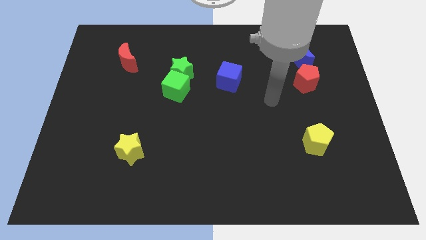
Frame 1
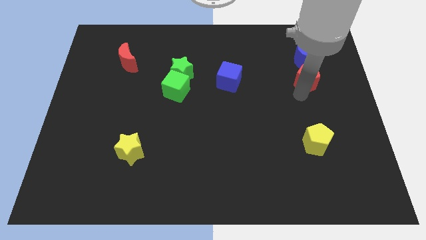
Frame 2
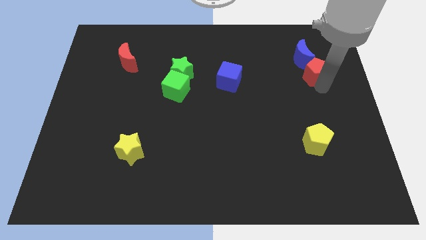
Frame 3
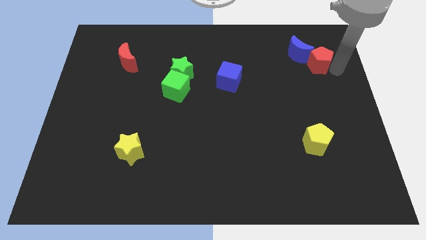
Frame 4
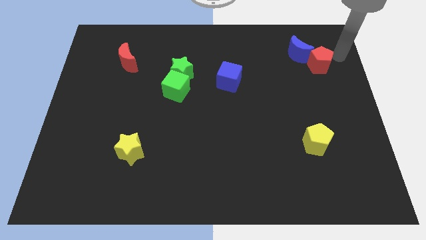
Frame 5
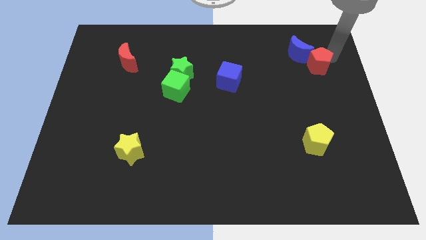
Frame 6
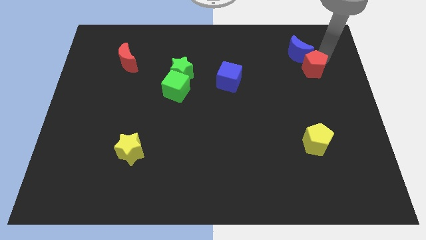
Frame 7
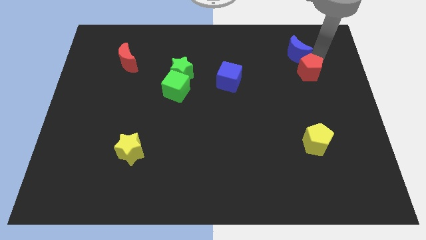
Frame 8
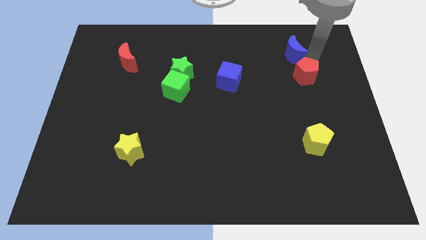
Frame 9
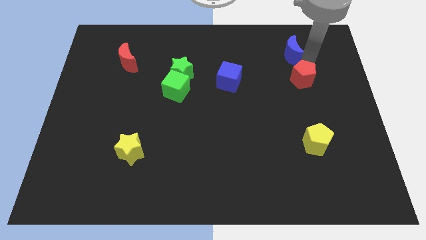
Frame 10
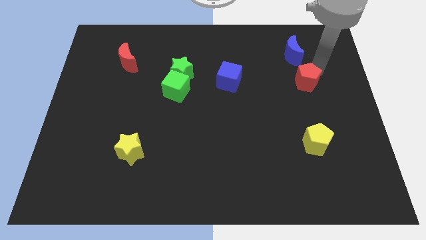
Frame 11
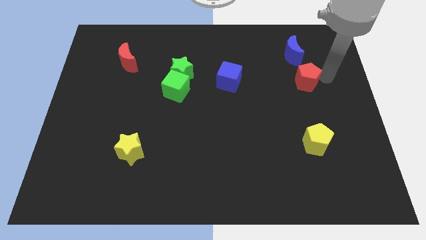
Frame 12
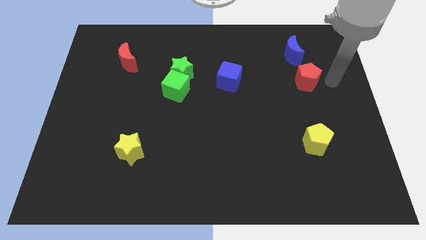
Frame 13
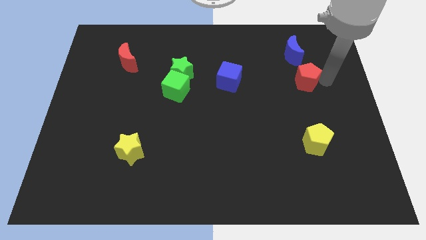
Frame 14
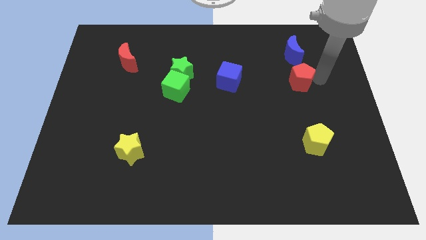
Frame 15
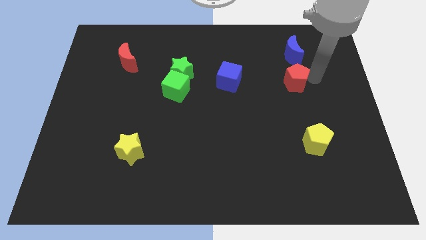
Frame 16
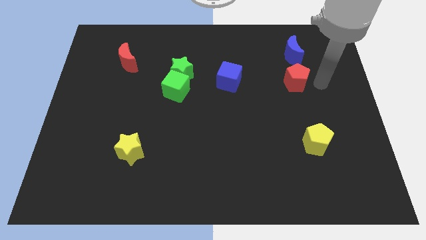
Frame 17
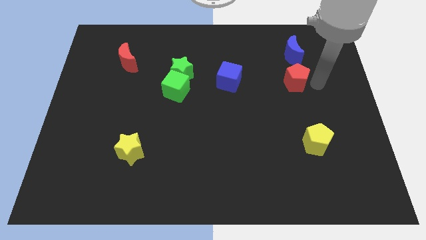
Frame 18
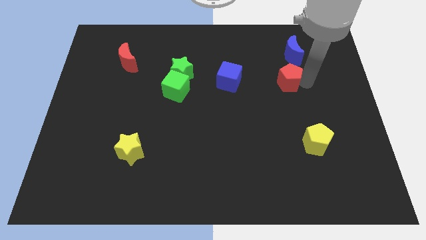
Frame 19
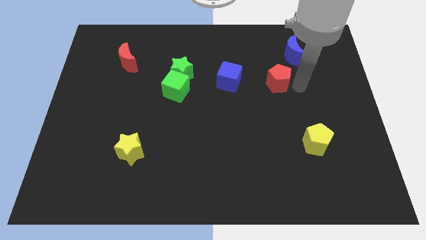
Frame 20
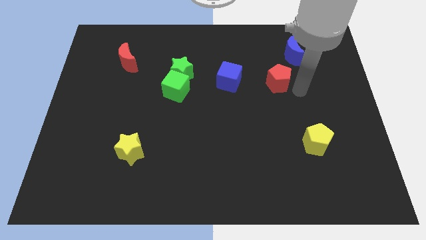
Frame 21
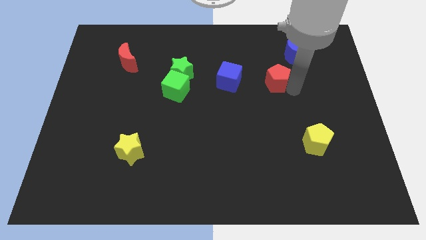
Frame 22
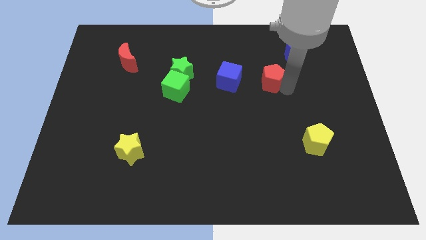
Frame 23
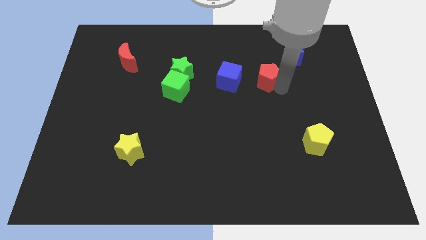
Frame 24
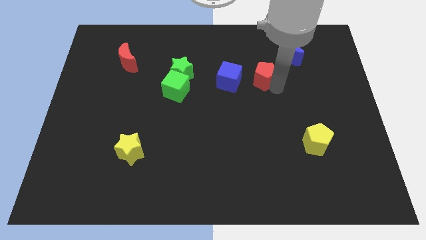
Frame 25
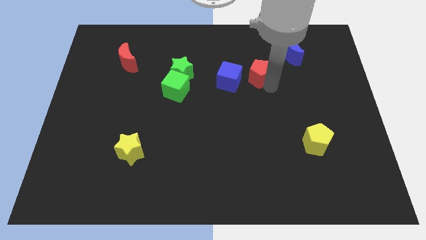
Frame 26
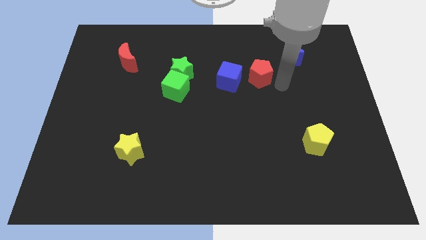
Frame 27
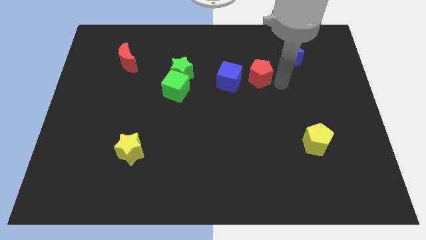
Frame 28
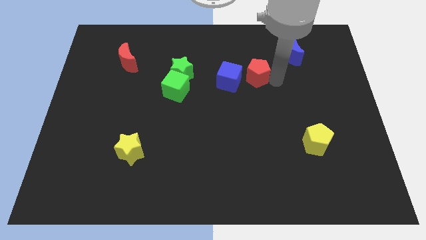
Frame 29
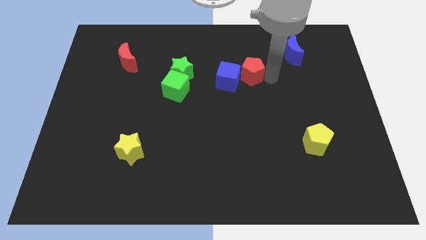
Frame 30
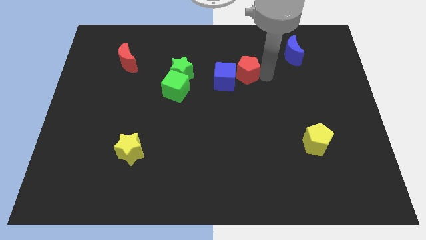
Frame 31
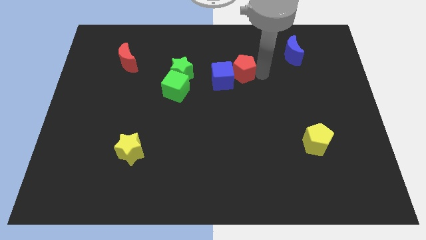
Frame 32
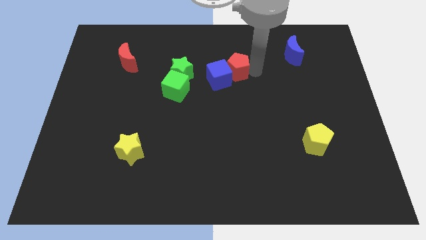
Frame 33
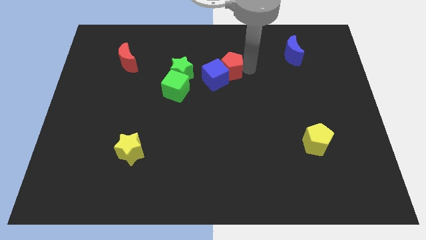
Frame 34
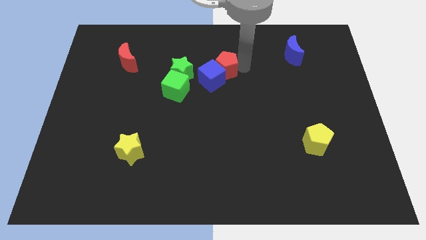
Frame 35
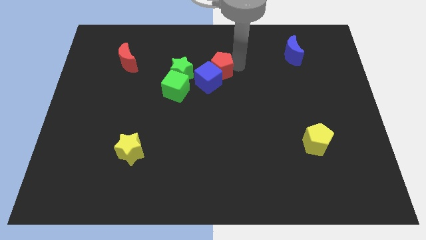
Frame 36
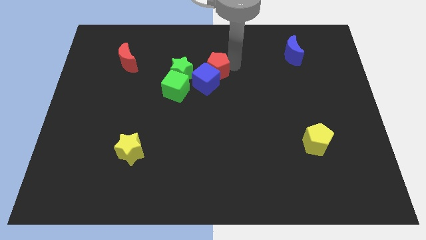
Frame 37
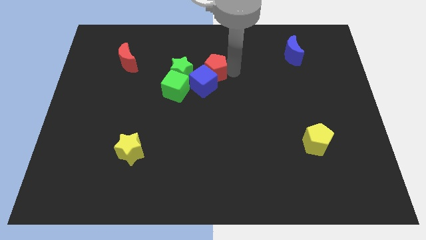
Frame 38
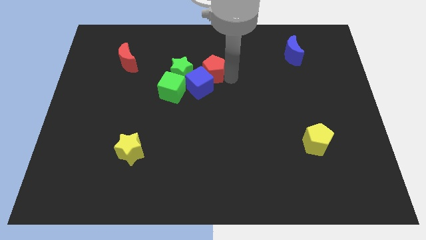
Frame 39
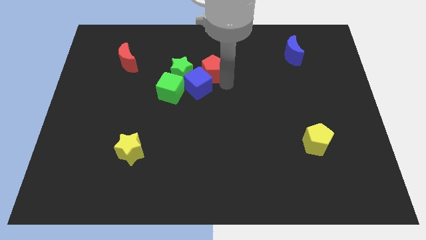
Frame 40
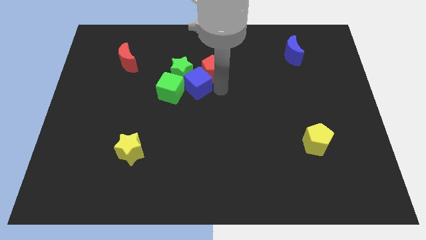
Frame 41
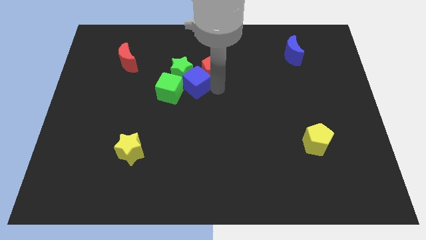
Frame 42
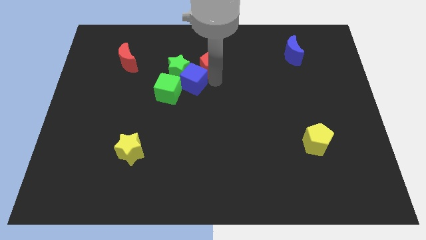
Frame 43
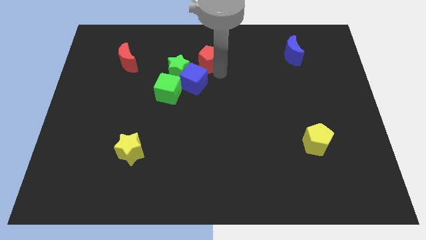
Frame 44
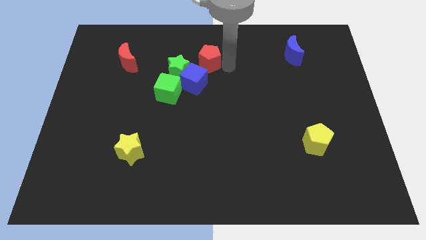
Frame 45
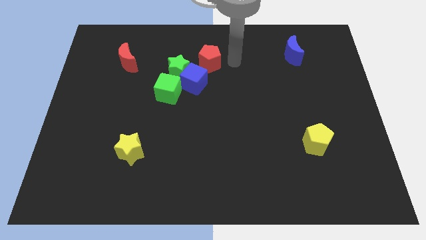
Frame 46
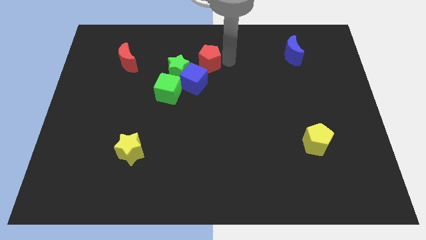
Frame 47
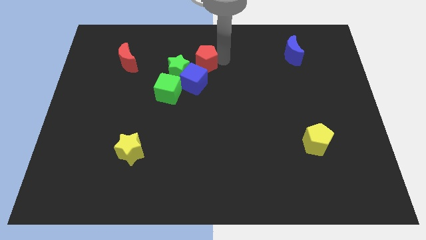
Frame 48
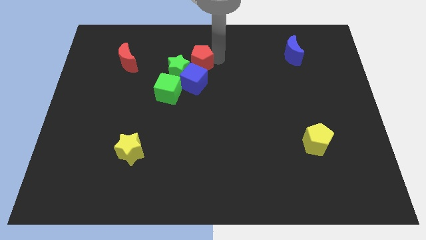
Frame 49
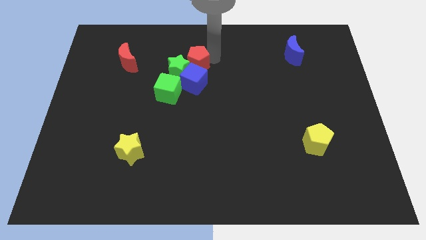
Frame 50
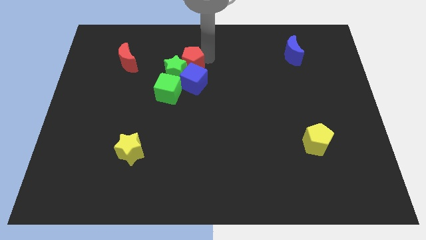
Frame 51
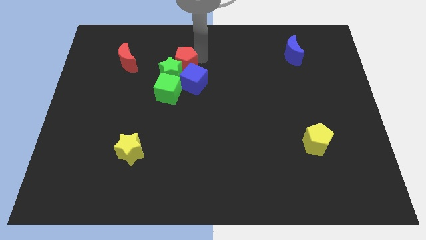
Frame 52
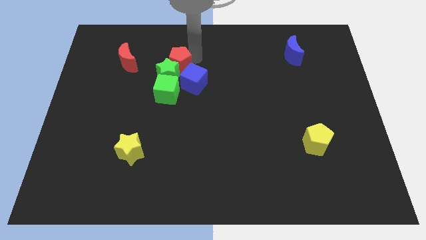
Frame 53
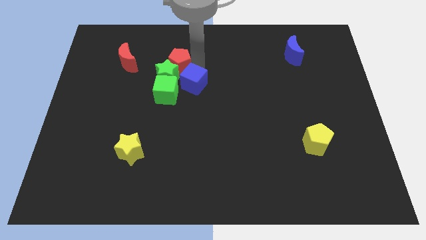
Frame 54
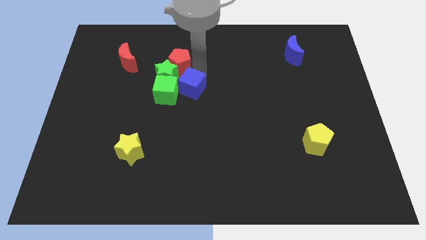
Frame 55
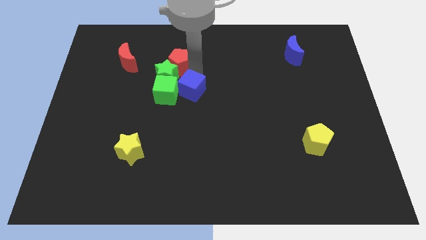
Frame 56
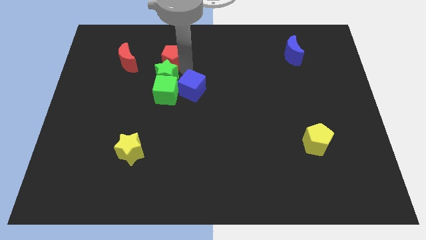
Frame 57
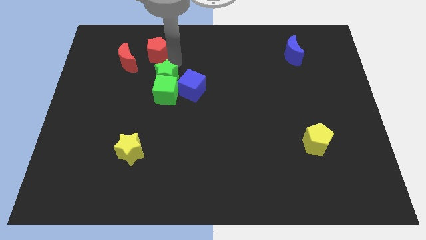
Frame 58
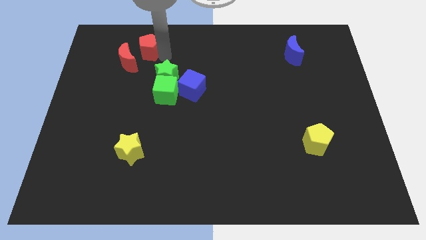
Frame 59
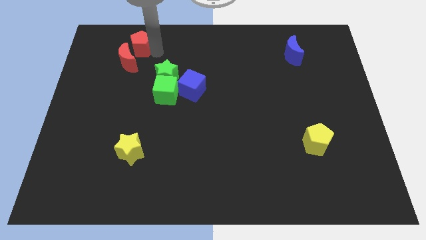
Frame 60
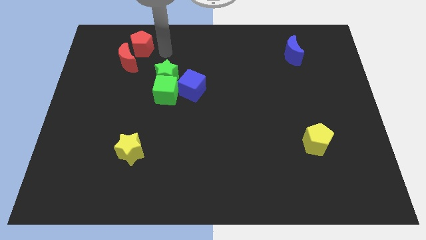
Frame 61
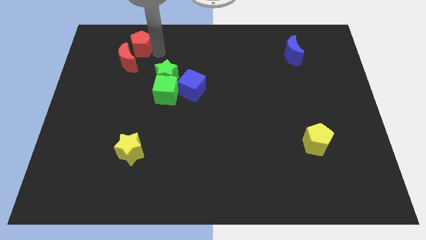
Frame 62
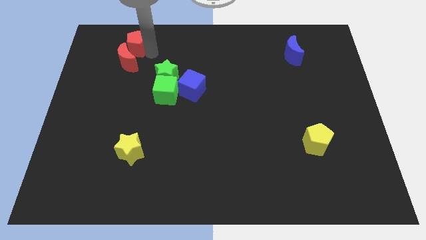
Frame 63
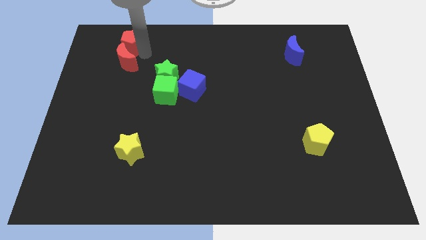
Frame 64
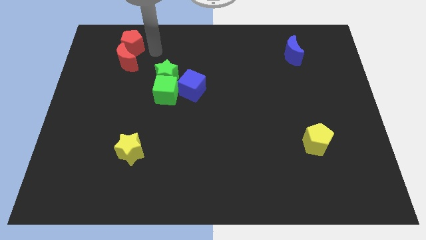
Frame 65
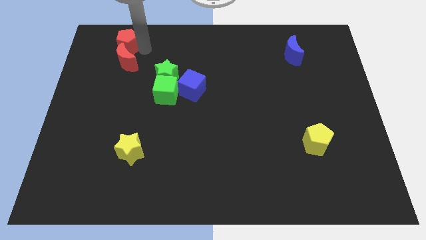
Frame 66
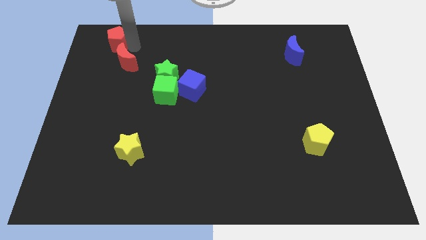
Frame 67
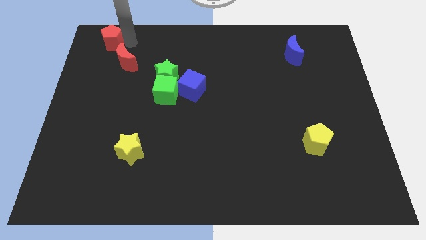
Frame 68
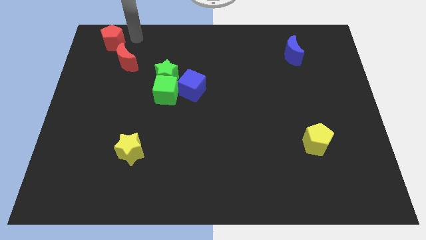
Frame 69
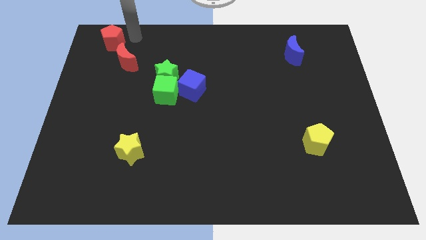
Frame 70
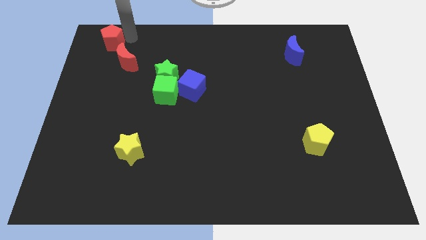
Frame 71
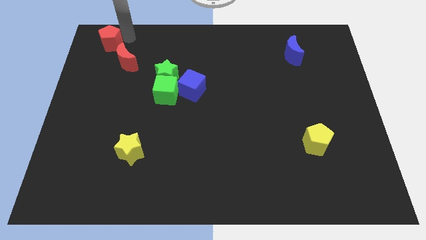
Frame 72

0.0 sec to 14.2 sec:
push the red pentagon to the upper left corner

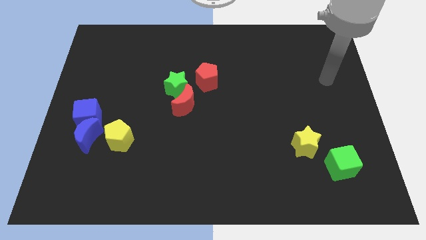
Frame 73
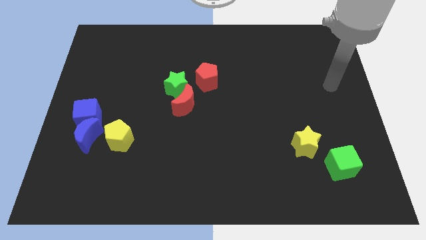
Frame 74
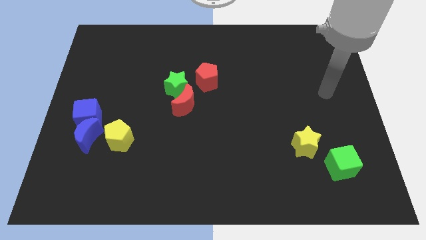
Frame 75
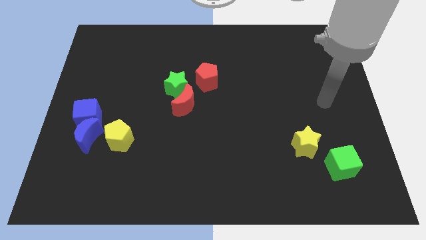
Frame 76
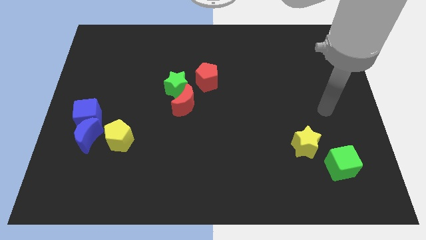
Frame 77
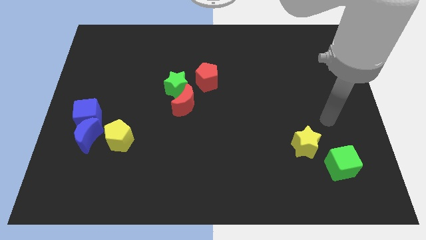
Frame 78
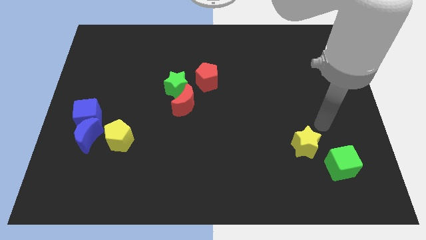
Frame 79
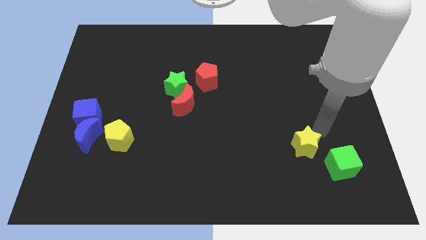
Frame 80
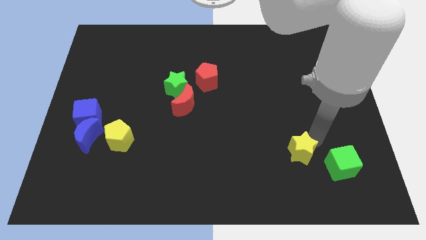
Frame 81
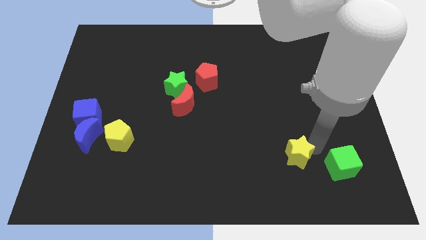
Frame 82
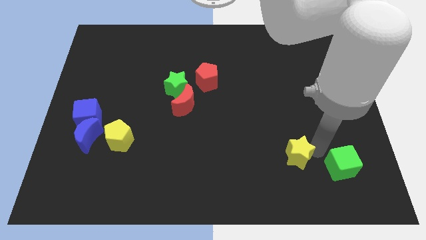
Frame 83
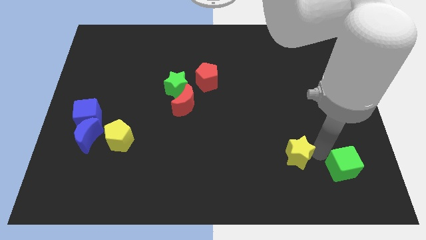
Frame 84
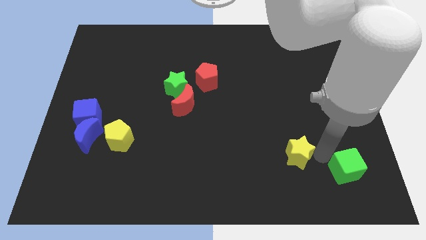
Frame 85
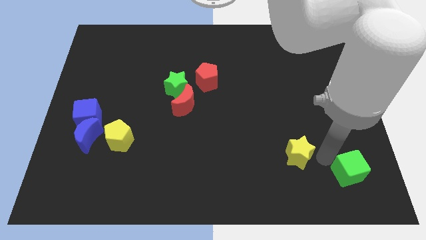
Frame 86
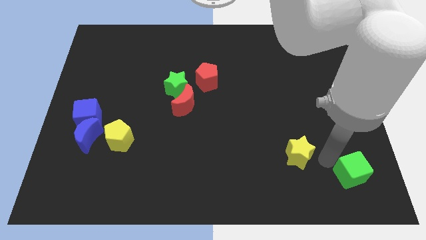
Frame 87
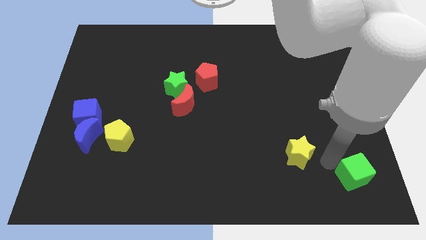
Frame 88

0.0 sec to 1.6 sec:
slide the green cube to the bottom right corner
